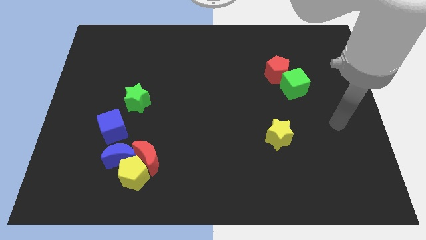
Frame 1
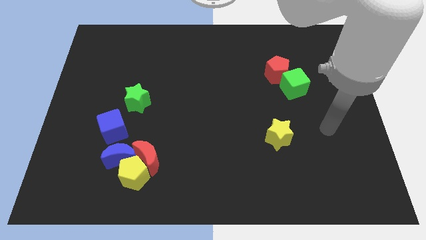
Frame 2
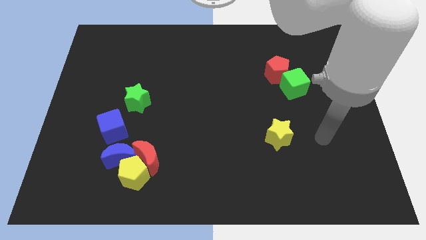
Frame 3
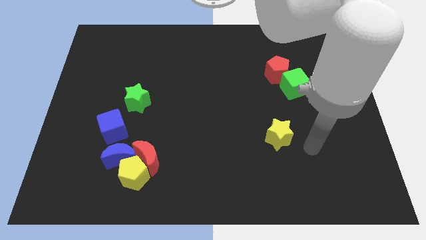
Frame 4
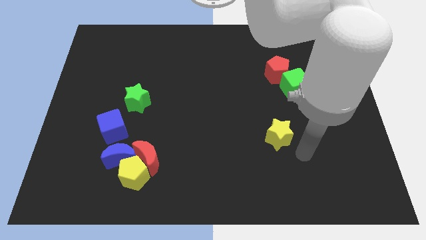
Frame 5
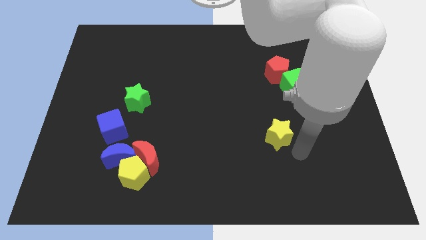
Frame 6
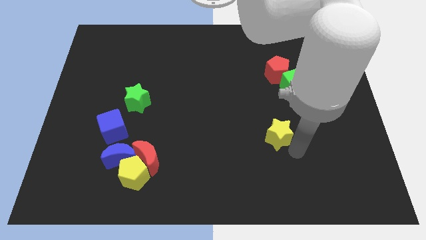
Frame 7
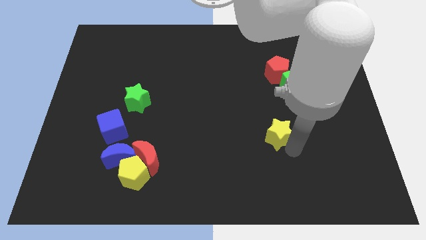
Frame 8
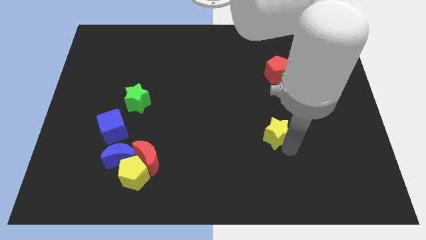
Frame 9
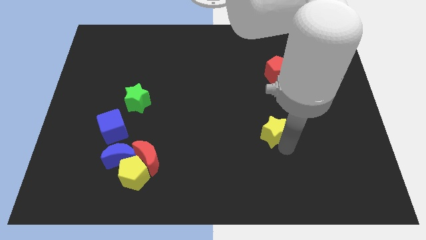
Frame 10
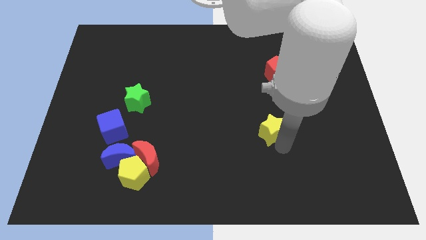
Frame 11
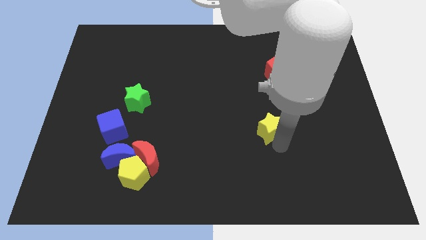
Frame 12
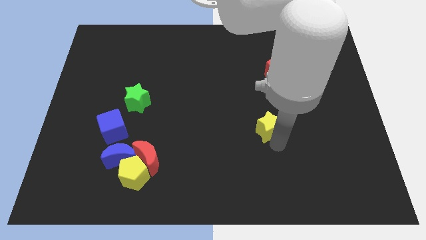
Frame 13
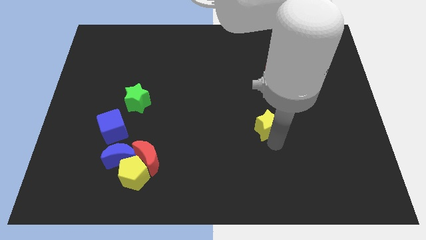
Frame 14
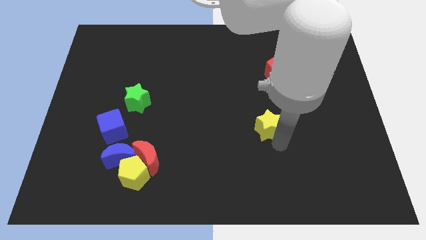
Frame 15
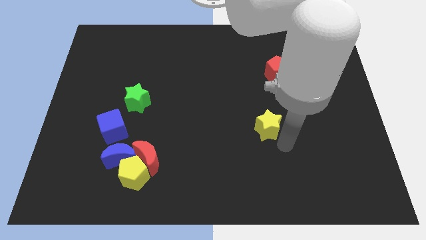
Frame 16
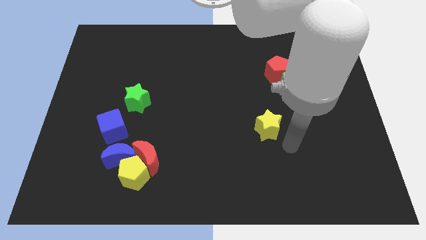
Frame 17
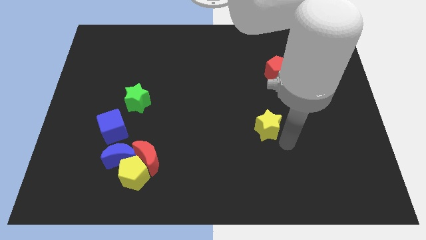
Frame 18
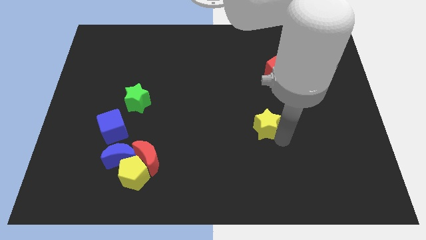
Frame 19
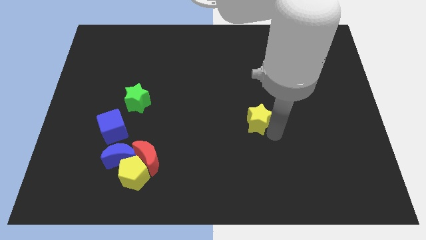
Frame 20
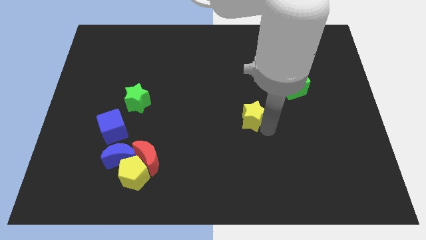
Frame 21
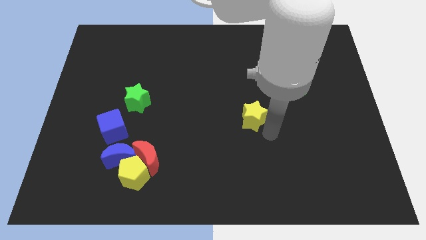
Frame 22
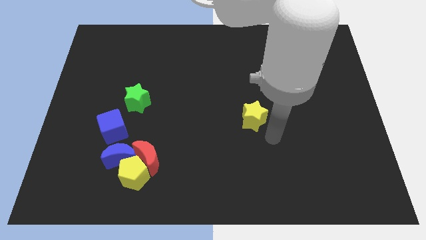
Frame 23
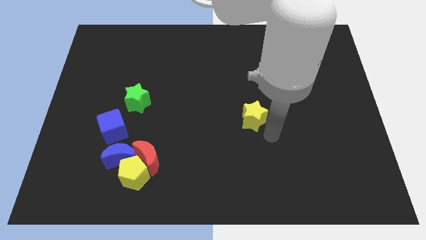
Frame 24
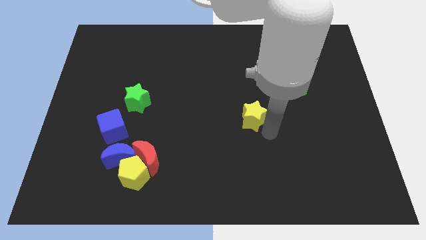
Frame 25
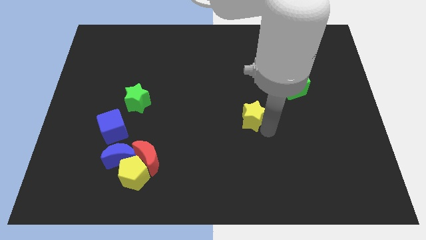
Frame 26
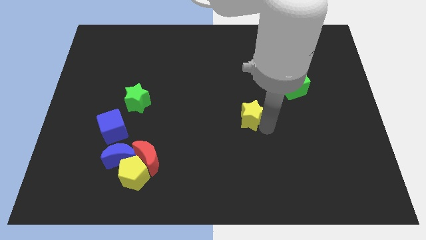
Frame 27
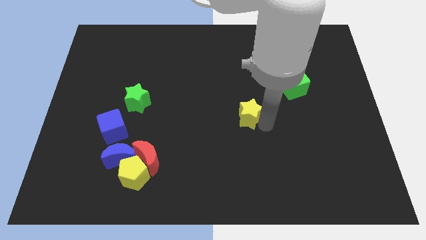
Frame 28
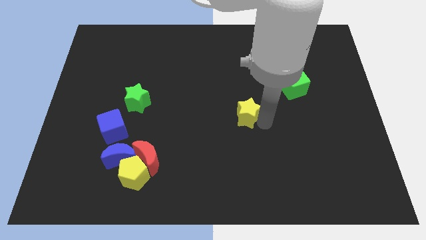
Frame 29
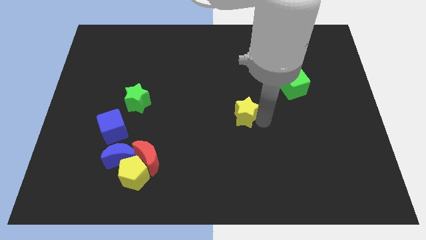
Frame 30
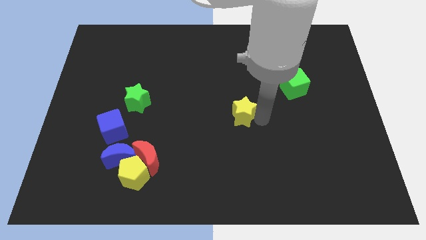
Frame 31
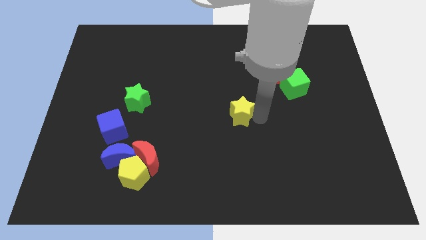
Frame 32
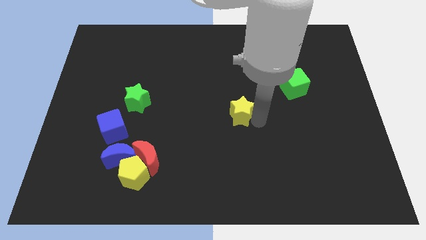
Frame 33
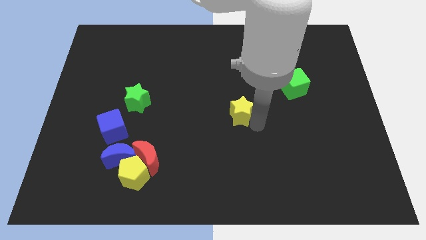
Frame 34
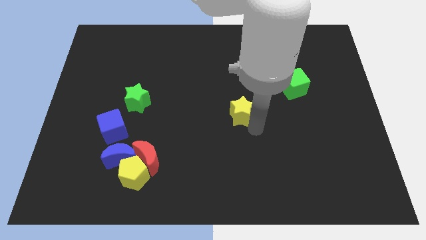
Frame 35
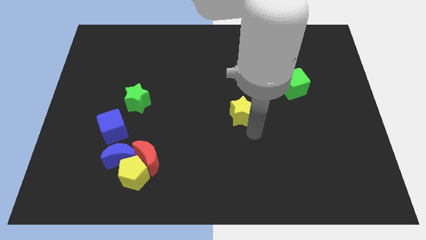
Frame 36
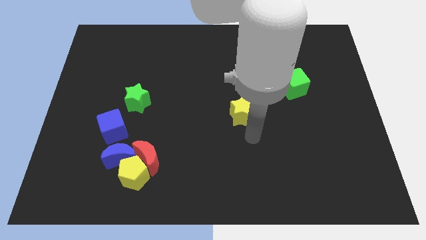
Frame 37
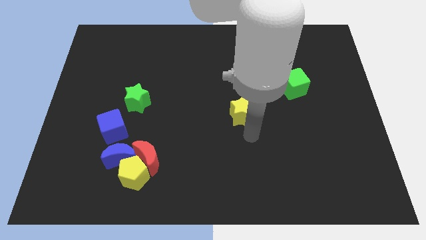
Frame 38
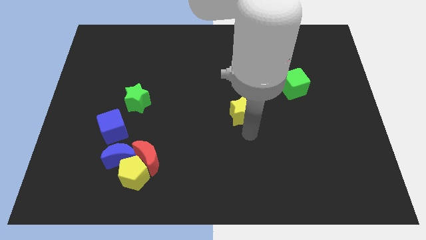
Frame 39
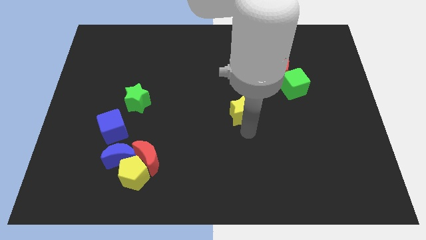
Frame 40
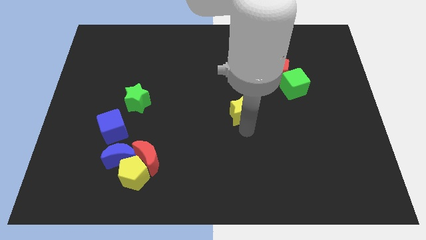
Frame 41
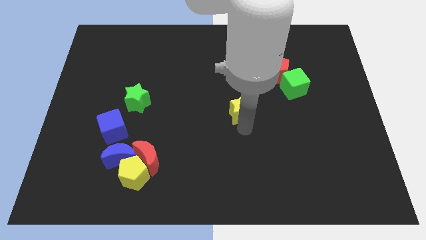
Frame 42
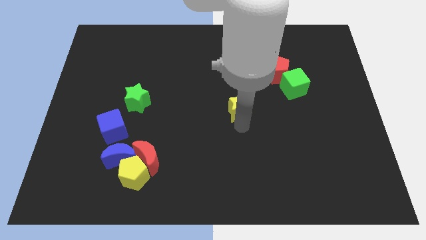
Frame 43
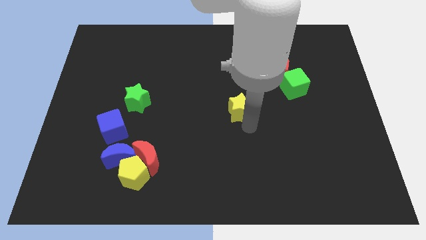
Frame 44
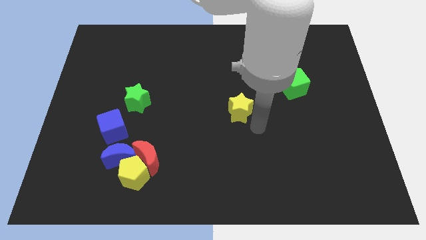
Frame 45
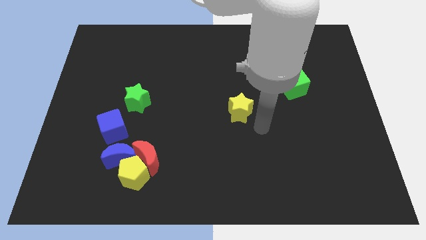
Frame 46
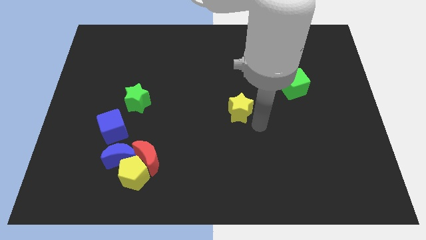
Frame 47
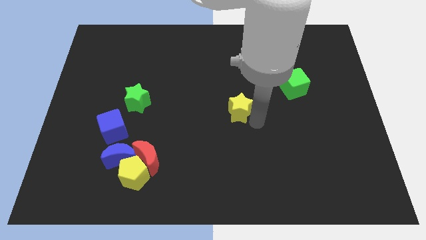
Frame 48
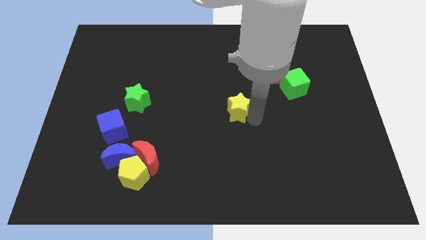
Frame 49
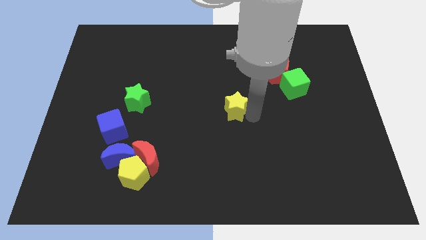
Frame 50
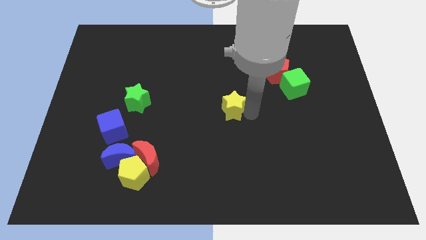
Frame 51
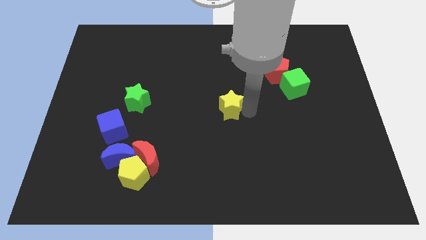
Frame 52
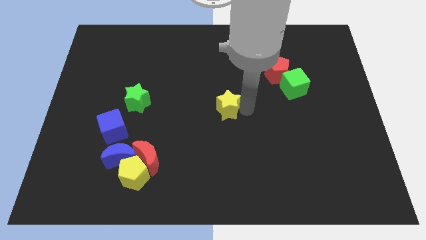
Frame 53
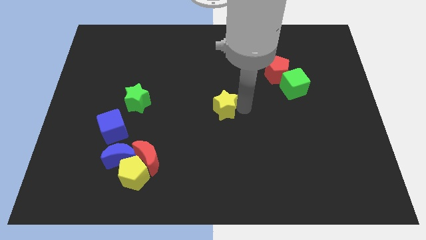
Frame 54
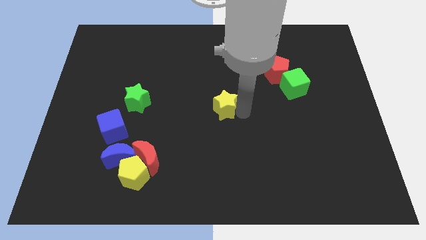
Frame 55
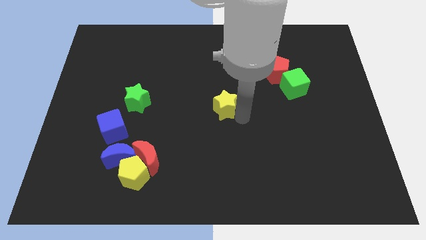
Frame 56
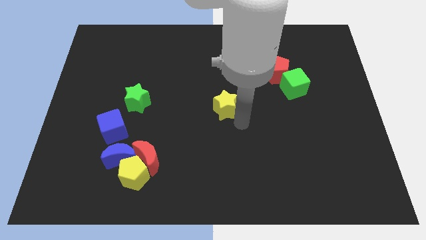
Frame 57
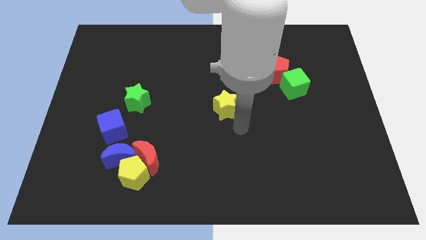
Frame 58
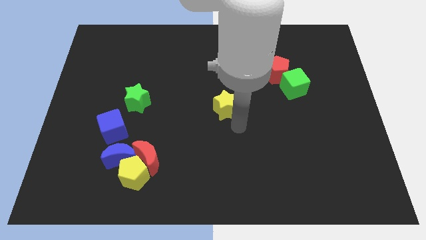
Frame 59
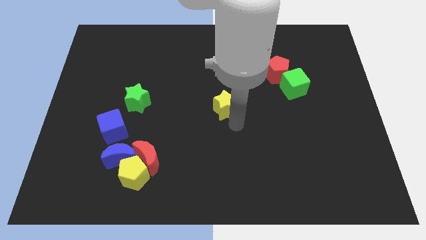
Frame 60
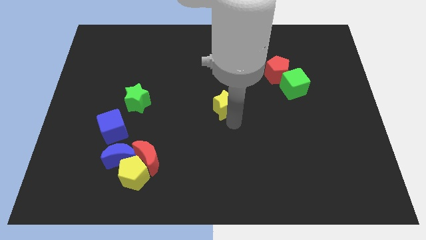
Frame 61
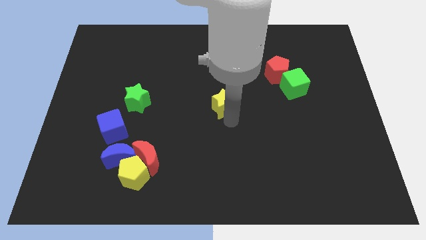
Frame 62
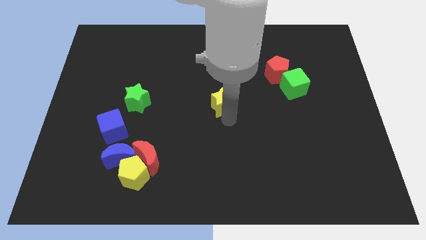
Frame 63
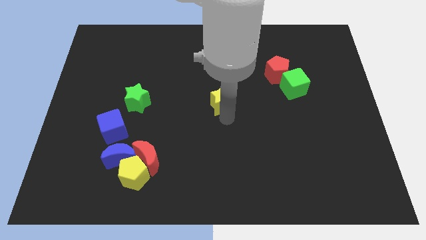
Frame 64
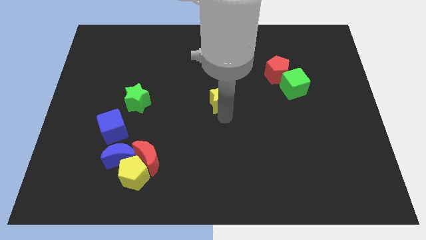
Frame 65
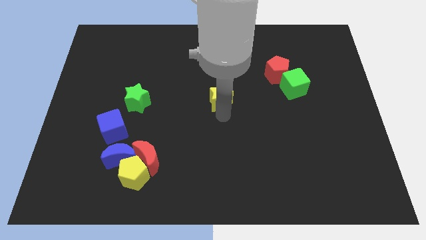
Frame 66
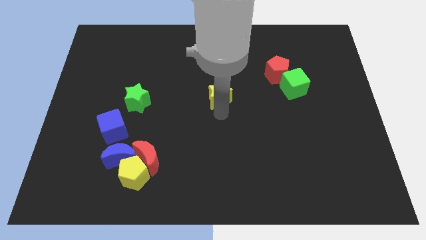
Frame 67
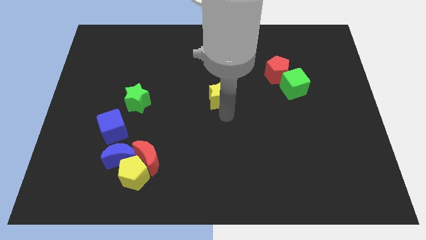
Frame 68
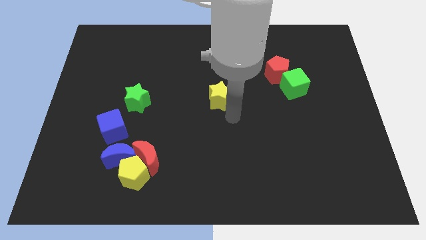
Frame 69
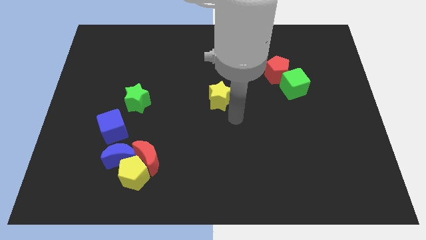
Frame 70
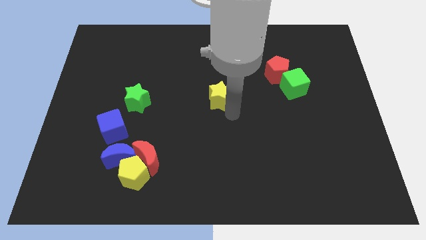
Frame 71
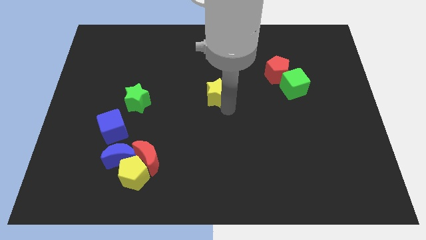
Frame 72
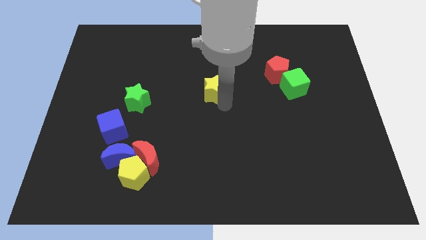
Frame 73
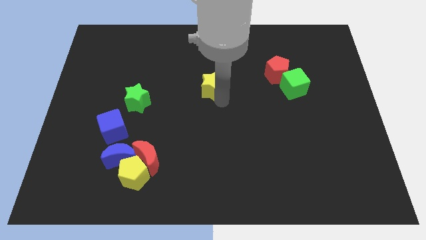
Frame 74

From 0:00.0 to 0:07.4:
push the yellow star upwards and to the left diagonally

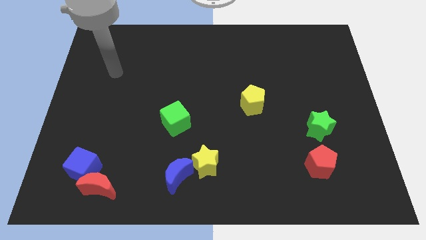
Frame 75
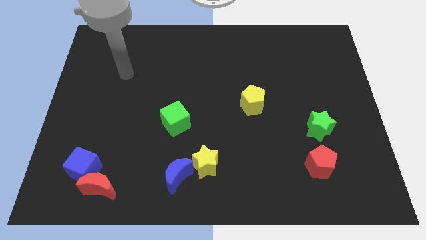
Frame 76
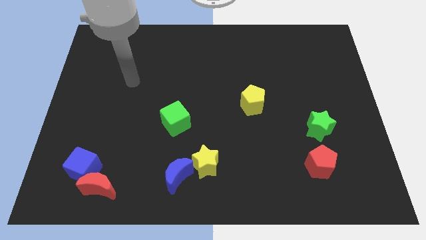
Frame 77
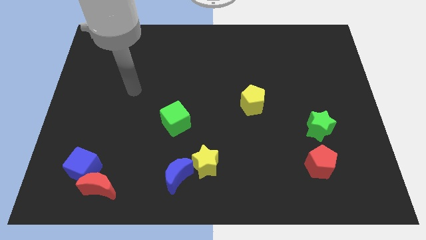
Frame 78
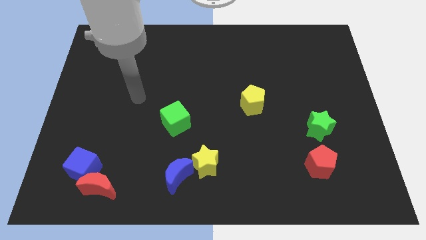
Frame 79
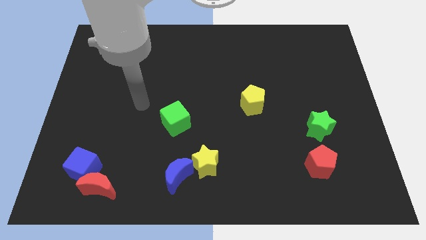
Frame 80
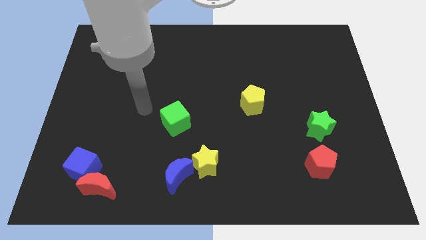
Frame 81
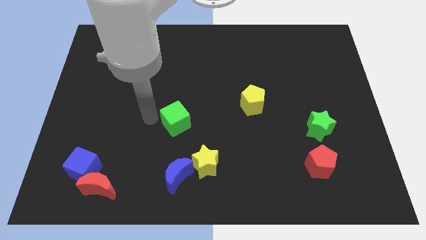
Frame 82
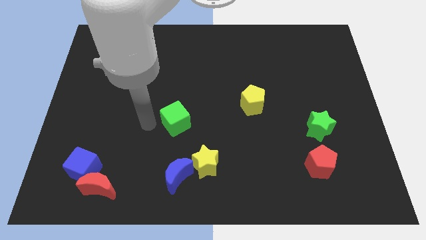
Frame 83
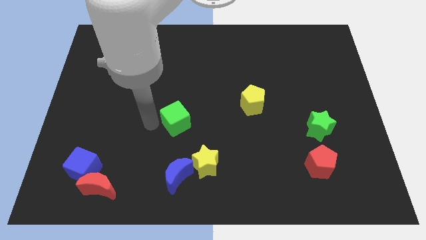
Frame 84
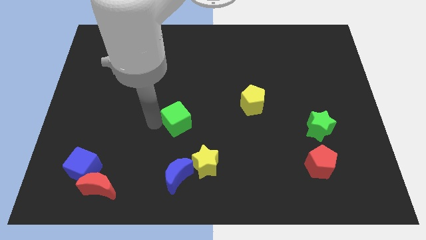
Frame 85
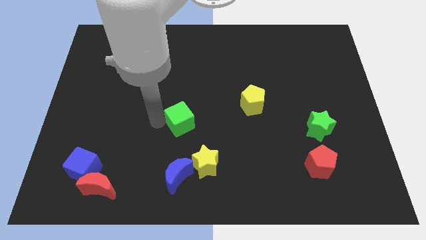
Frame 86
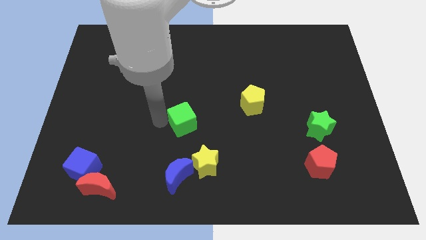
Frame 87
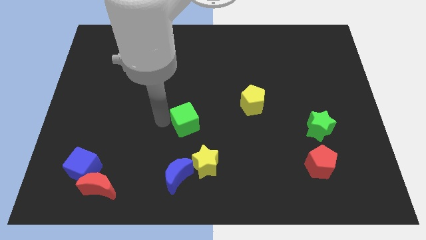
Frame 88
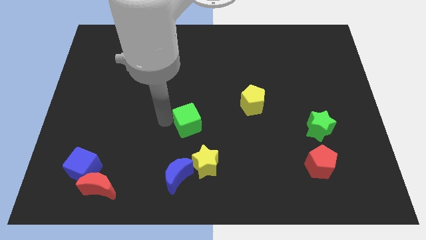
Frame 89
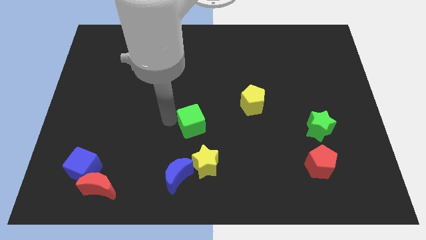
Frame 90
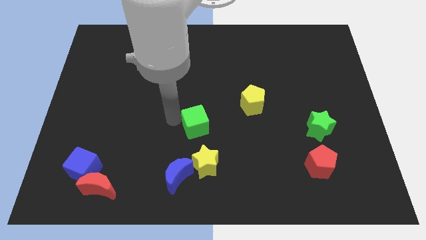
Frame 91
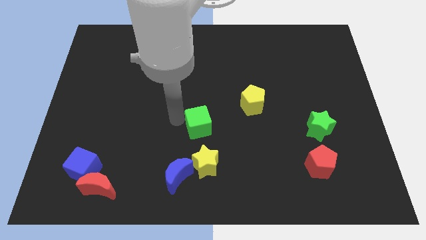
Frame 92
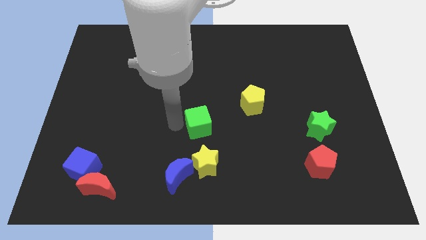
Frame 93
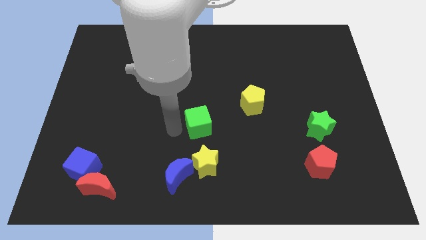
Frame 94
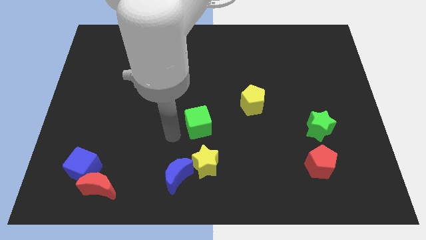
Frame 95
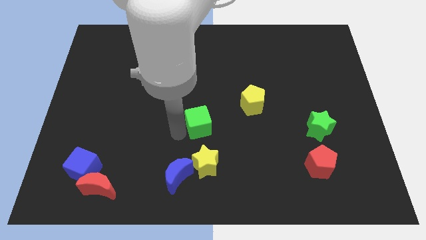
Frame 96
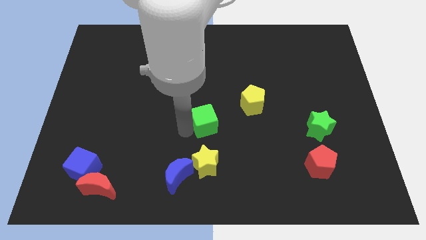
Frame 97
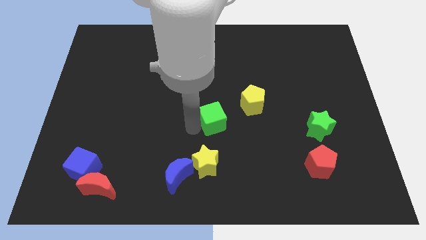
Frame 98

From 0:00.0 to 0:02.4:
slightly move the green cube to the right
